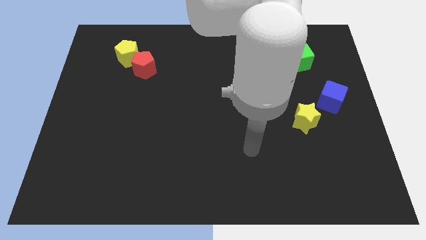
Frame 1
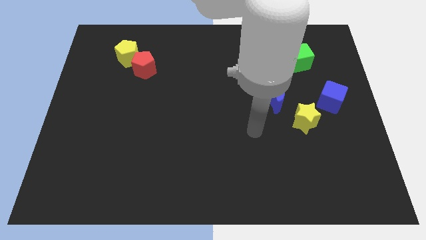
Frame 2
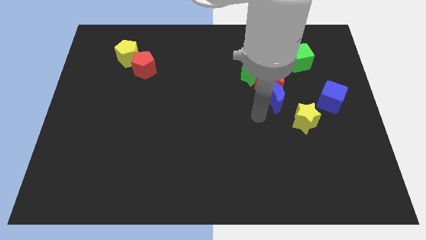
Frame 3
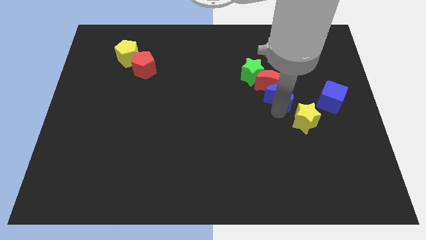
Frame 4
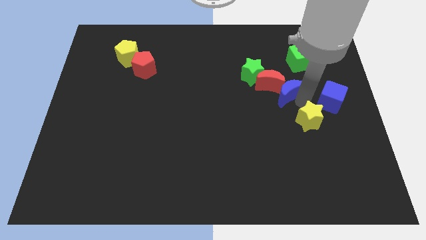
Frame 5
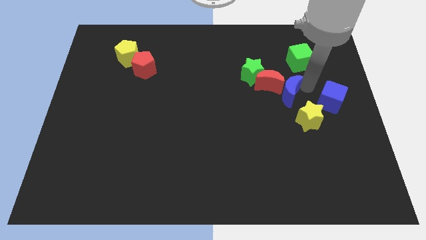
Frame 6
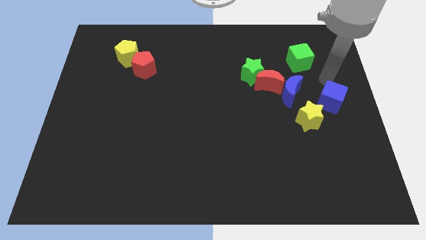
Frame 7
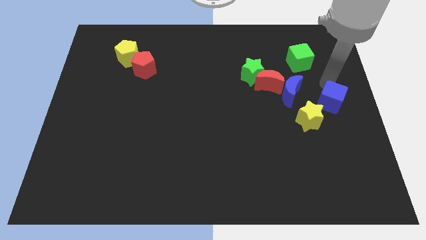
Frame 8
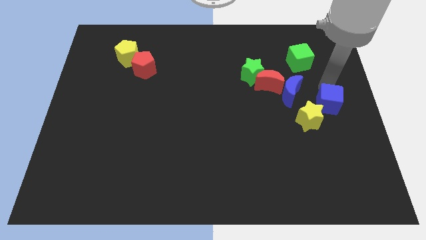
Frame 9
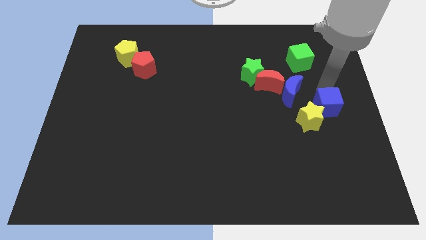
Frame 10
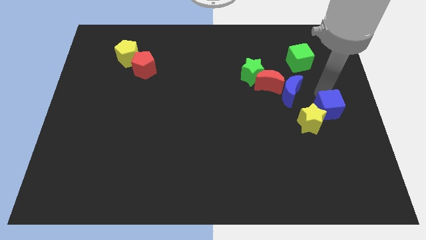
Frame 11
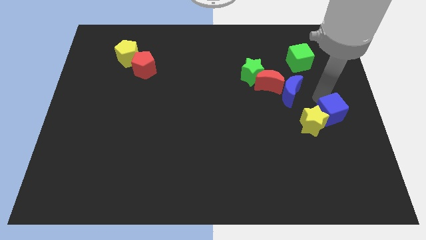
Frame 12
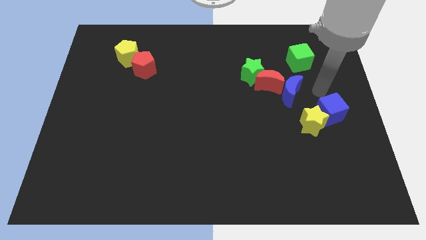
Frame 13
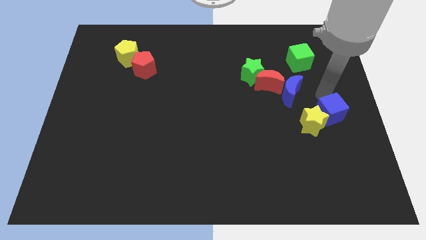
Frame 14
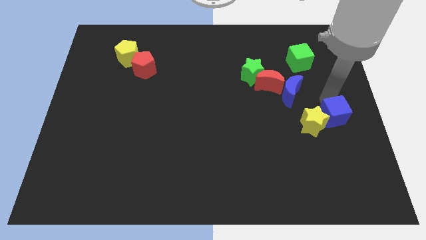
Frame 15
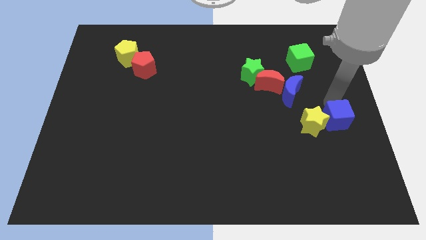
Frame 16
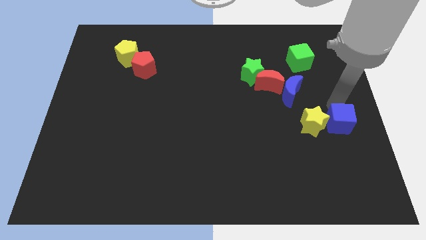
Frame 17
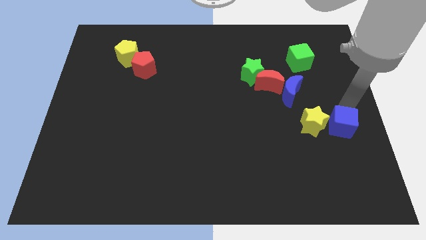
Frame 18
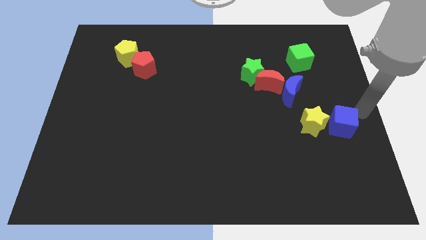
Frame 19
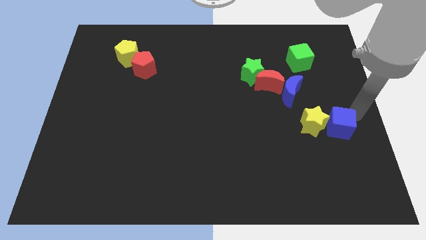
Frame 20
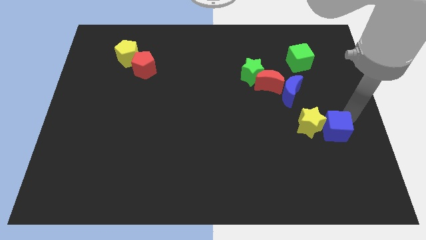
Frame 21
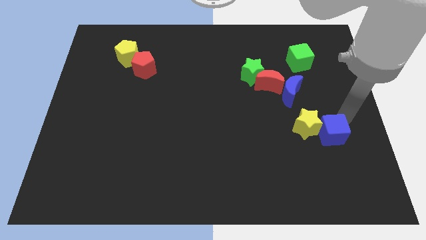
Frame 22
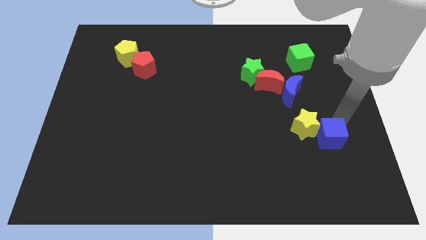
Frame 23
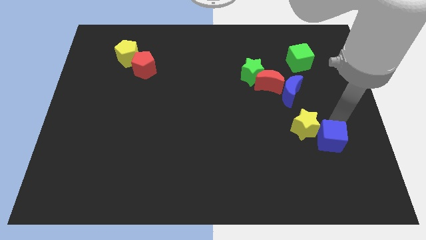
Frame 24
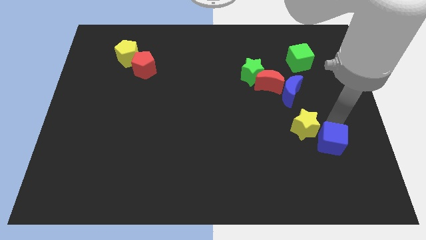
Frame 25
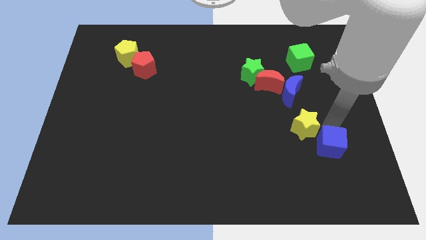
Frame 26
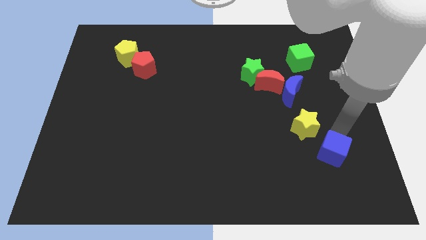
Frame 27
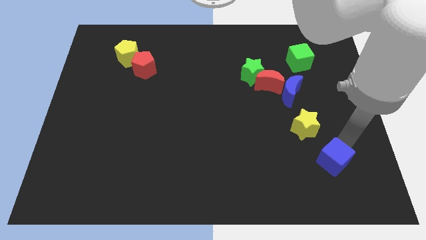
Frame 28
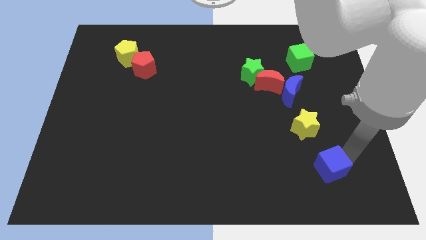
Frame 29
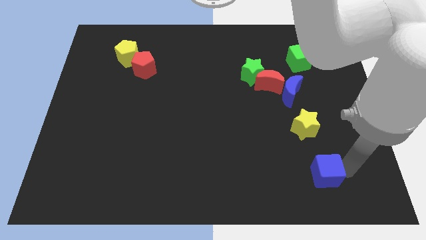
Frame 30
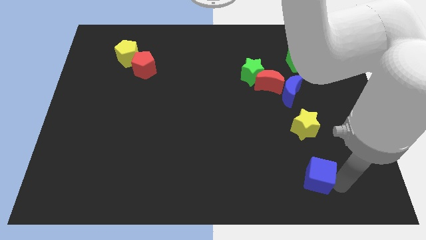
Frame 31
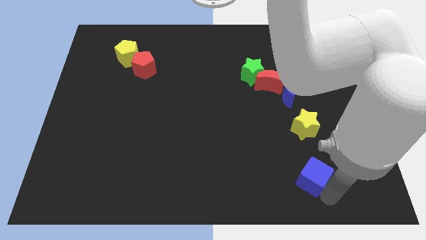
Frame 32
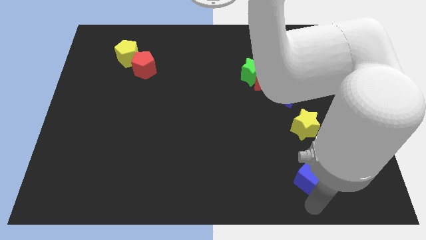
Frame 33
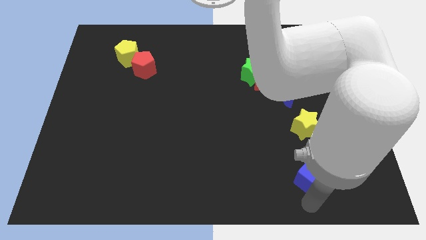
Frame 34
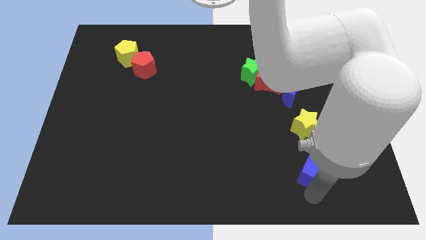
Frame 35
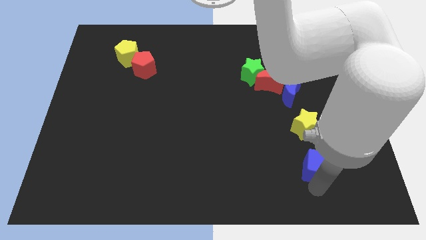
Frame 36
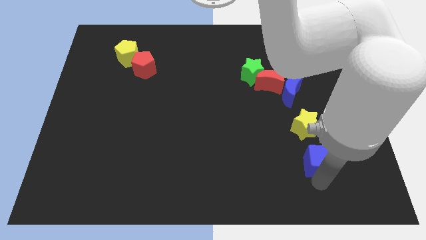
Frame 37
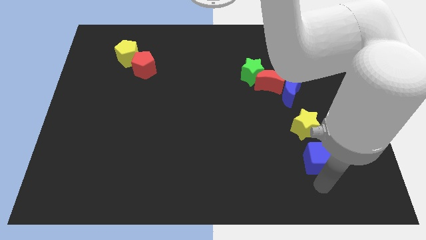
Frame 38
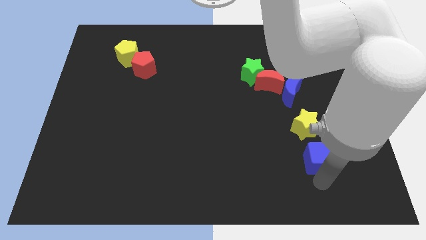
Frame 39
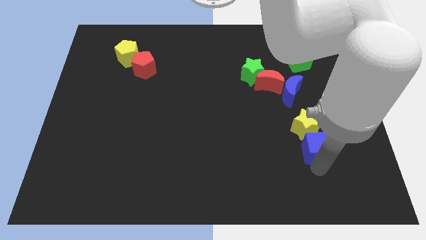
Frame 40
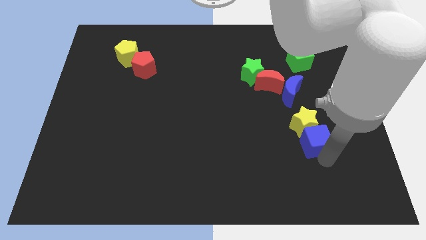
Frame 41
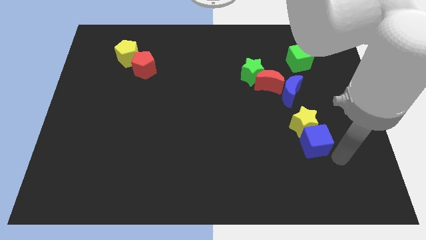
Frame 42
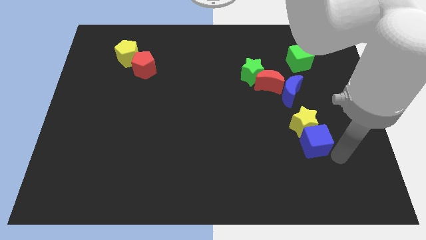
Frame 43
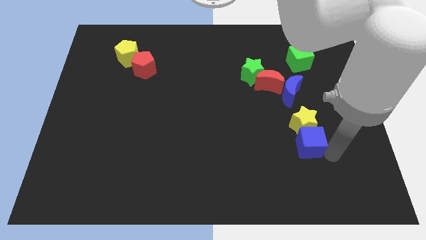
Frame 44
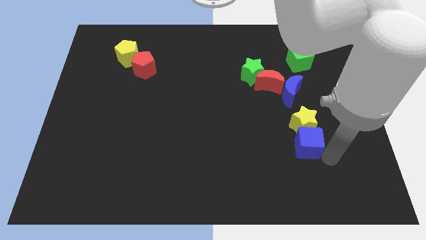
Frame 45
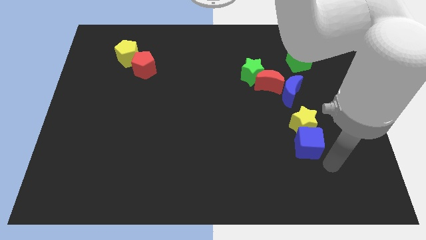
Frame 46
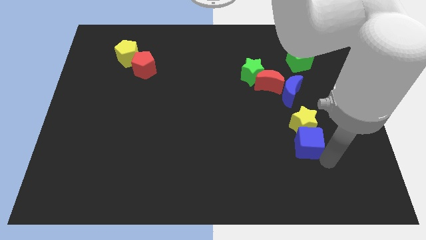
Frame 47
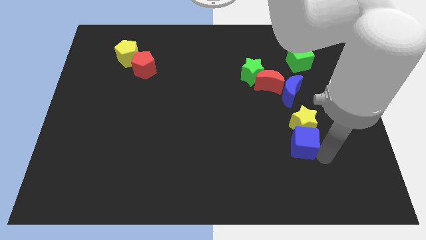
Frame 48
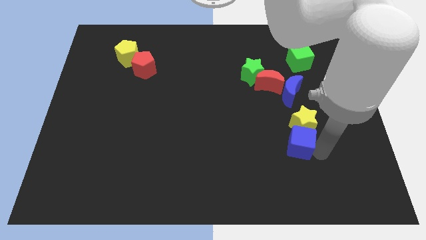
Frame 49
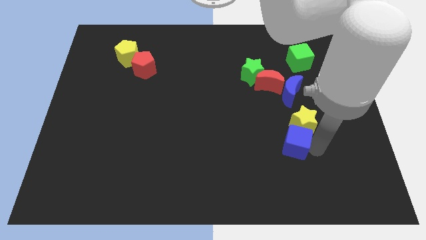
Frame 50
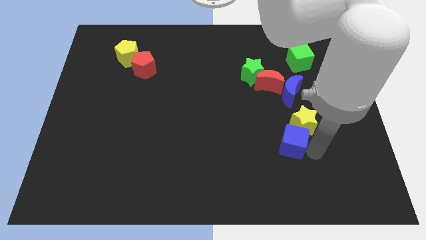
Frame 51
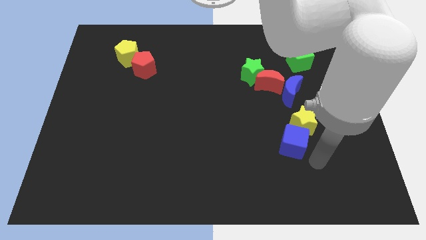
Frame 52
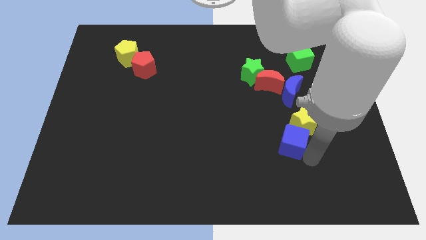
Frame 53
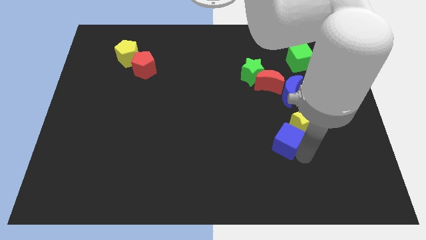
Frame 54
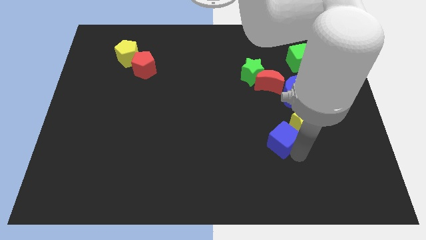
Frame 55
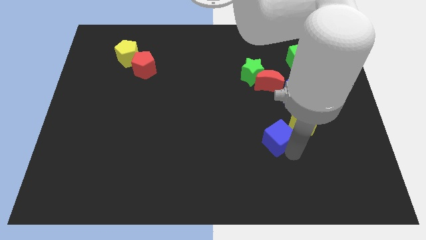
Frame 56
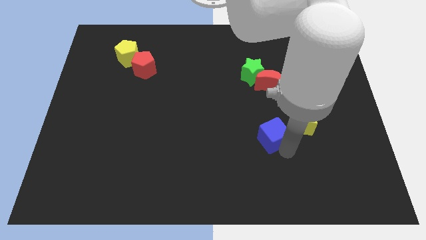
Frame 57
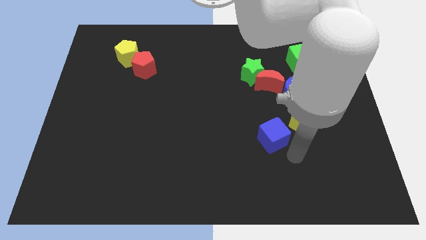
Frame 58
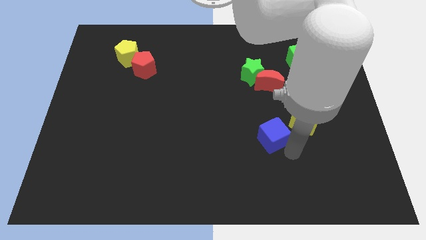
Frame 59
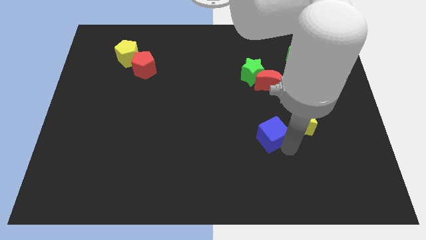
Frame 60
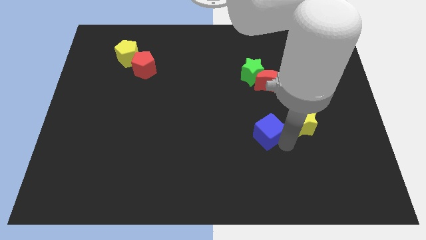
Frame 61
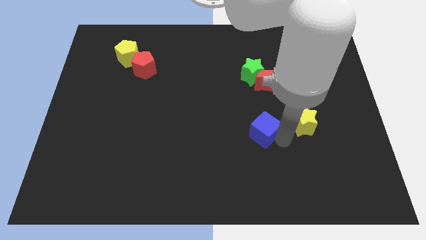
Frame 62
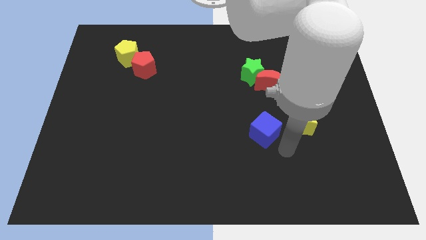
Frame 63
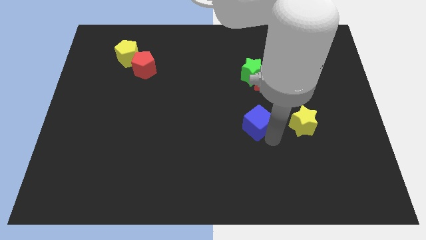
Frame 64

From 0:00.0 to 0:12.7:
push the blue cube to the center
